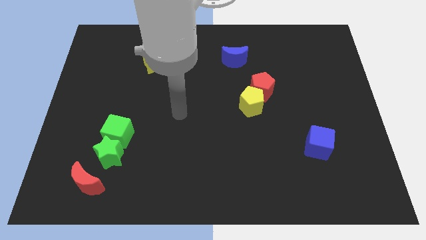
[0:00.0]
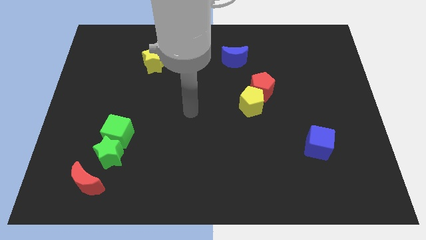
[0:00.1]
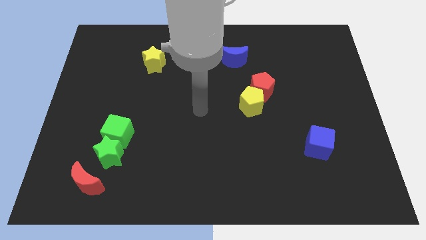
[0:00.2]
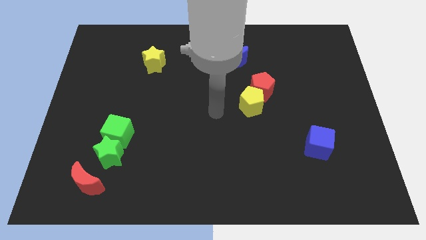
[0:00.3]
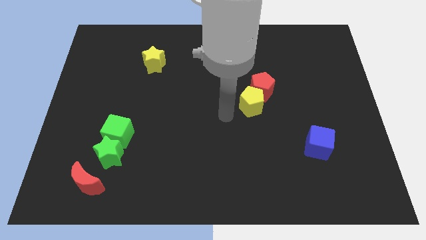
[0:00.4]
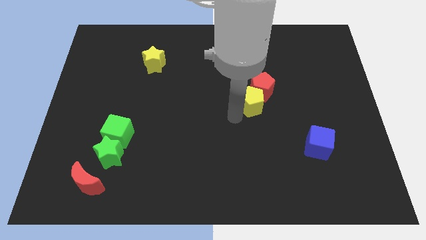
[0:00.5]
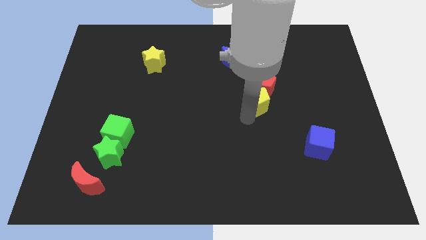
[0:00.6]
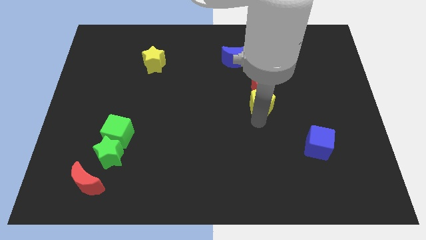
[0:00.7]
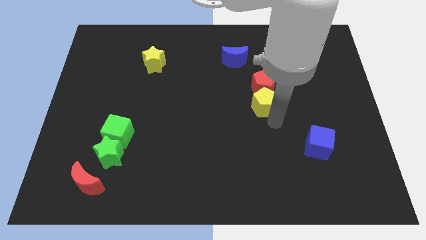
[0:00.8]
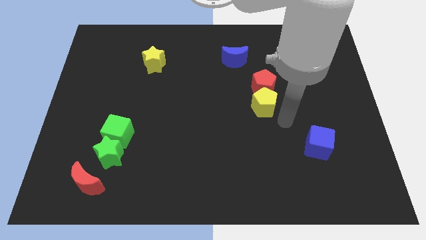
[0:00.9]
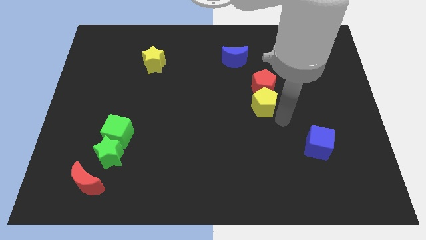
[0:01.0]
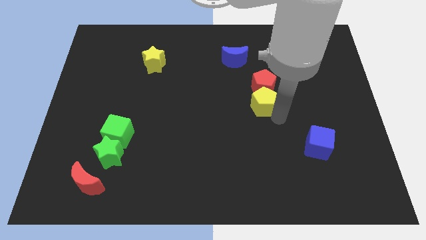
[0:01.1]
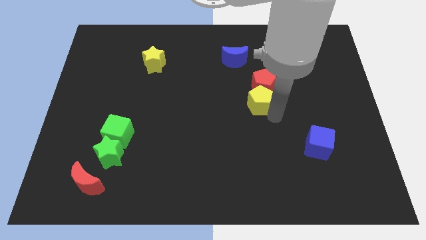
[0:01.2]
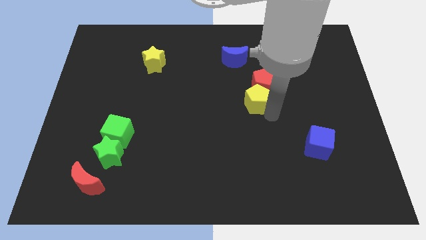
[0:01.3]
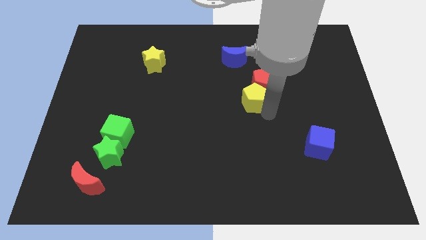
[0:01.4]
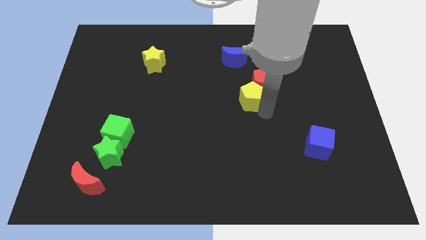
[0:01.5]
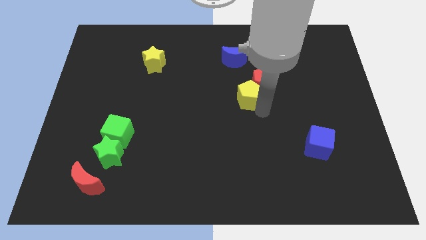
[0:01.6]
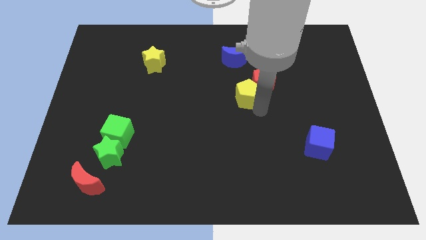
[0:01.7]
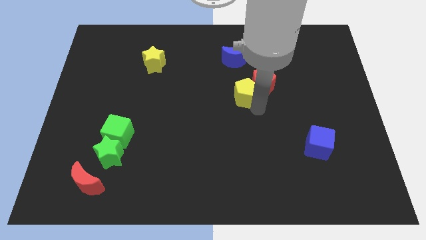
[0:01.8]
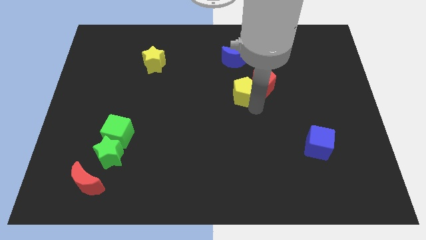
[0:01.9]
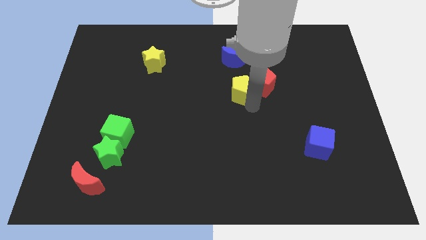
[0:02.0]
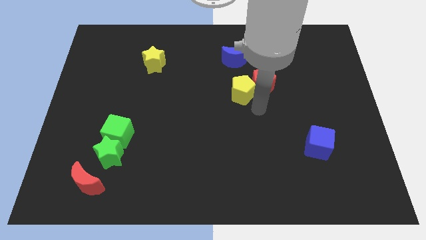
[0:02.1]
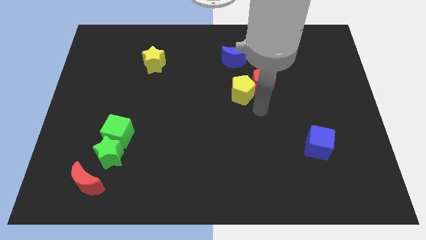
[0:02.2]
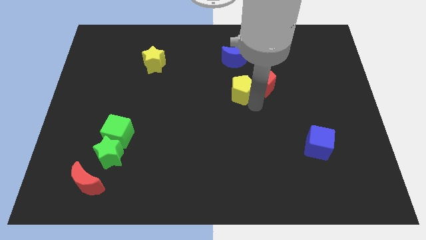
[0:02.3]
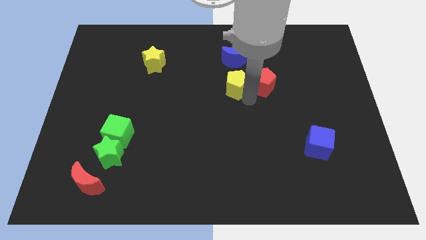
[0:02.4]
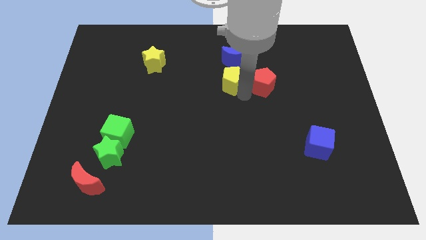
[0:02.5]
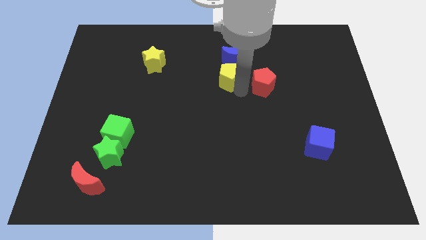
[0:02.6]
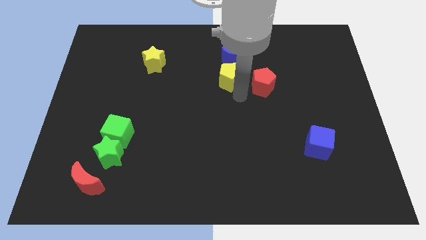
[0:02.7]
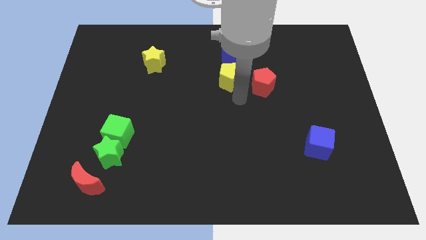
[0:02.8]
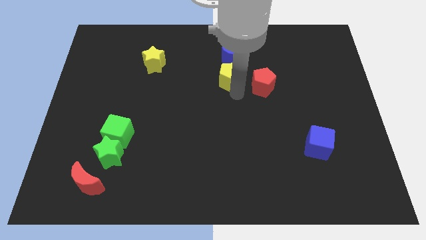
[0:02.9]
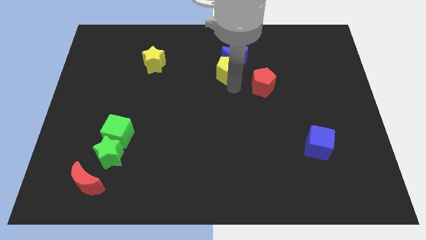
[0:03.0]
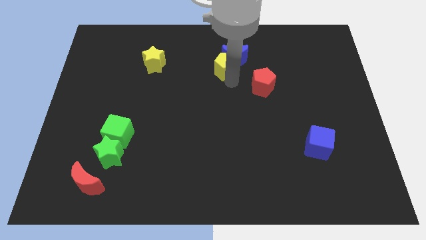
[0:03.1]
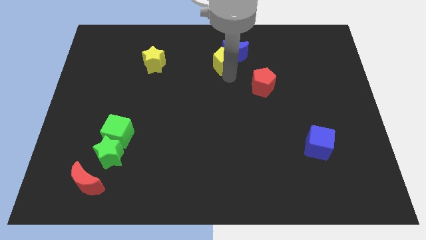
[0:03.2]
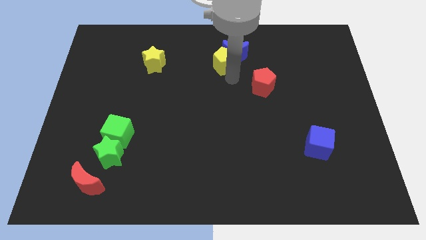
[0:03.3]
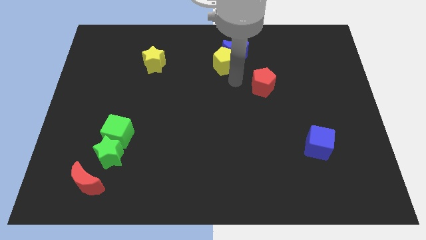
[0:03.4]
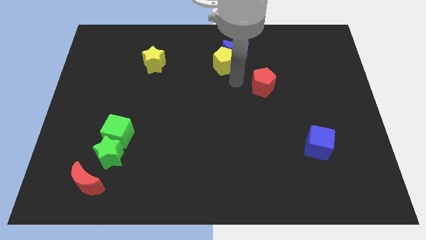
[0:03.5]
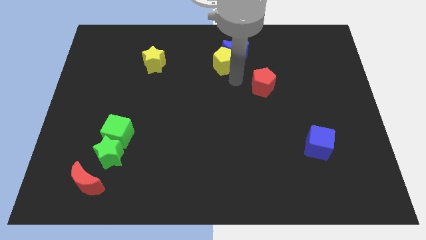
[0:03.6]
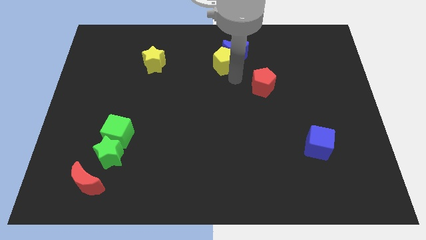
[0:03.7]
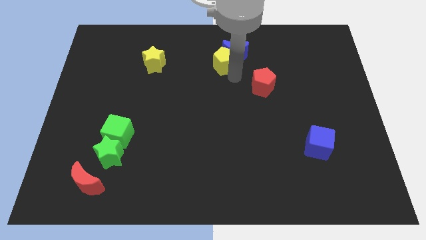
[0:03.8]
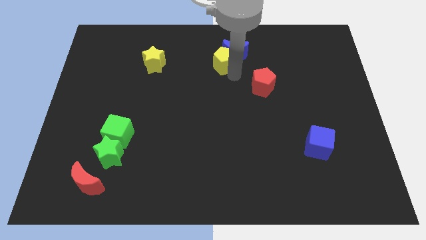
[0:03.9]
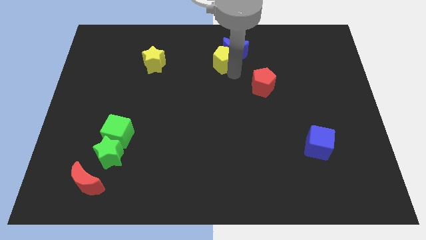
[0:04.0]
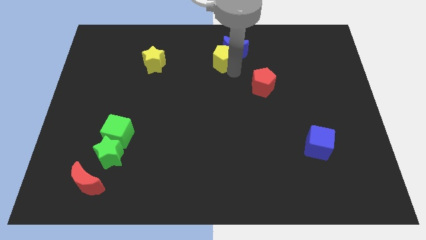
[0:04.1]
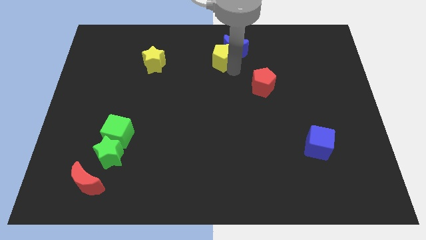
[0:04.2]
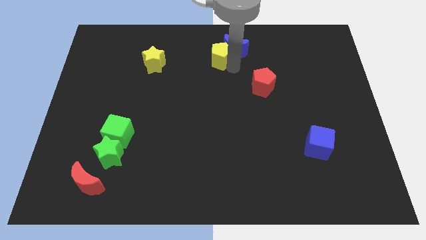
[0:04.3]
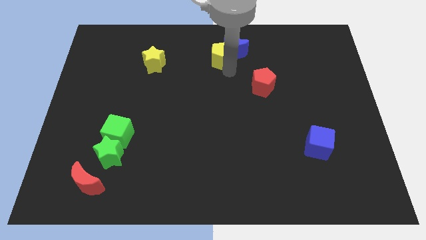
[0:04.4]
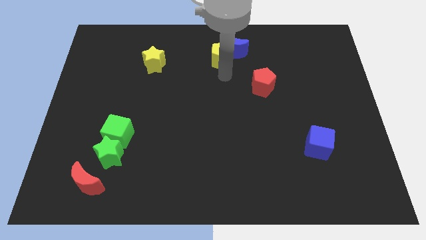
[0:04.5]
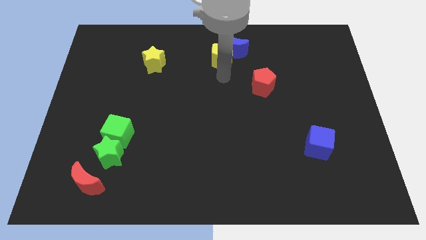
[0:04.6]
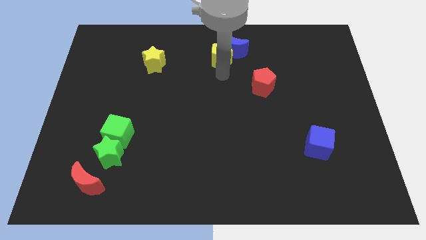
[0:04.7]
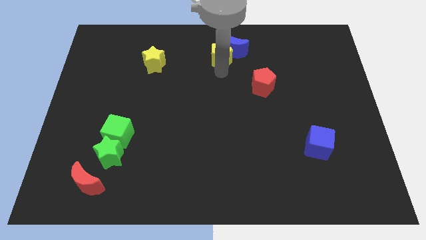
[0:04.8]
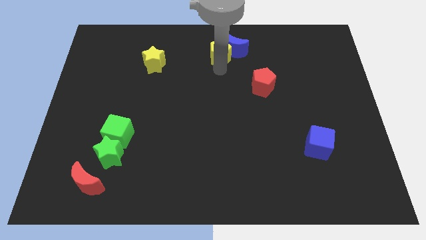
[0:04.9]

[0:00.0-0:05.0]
slide the yellow pentagon to the top

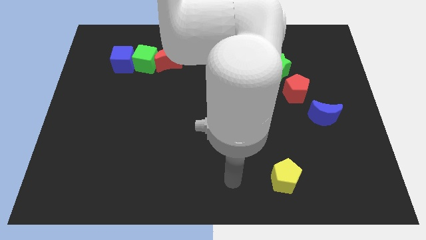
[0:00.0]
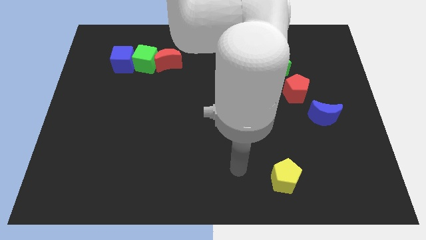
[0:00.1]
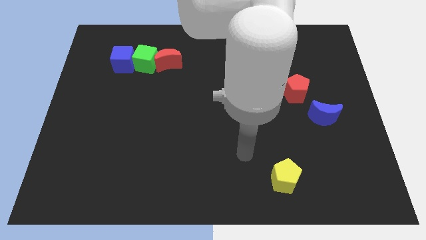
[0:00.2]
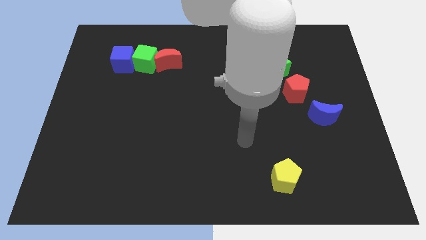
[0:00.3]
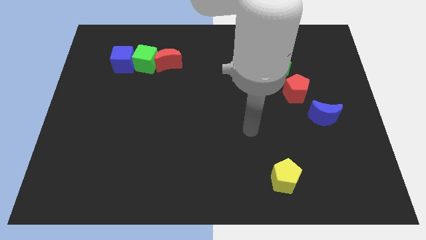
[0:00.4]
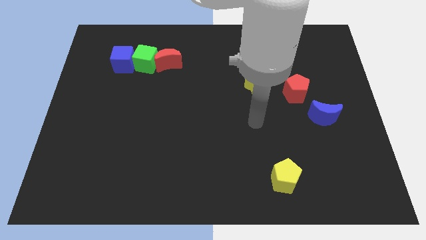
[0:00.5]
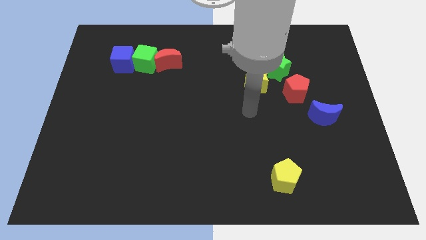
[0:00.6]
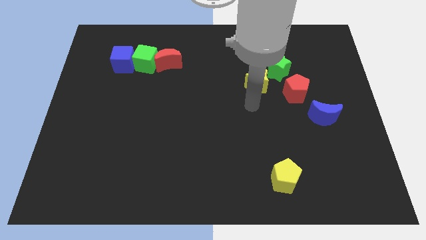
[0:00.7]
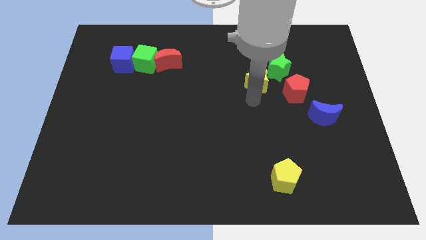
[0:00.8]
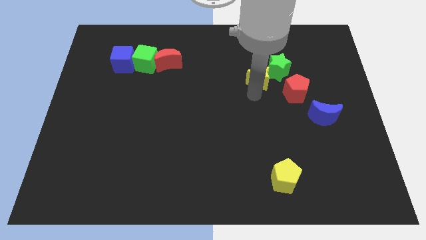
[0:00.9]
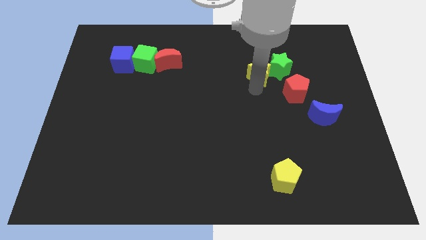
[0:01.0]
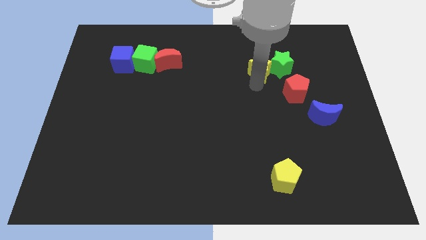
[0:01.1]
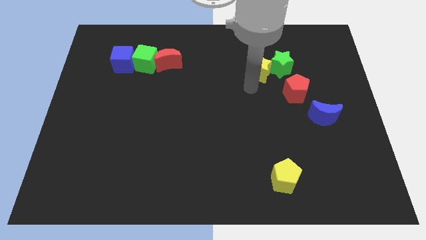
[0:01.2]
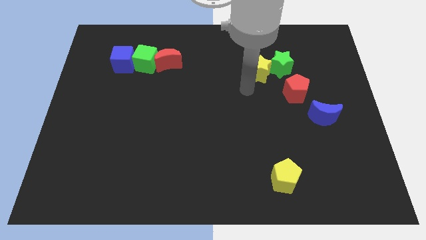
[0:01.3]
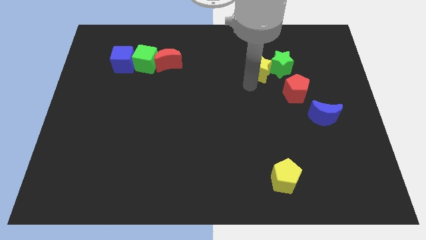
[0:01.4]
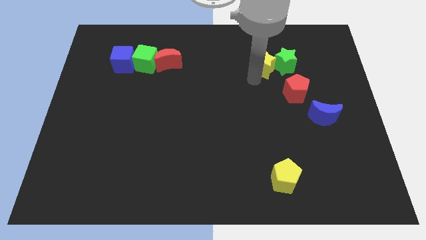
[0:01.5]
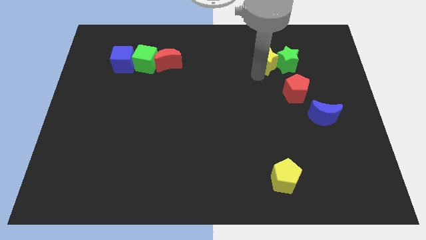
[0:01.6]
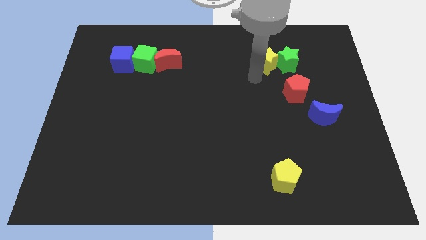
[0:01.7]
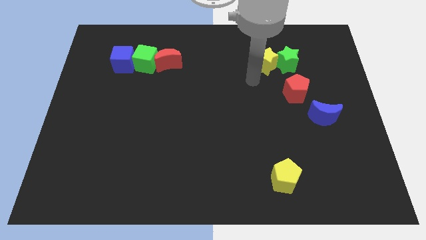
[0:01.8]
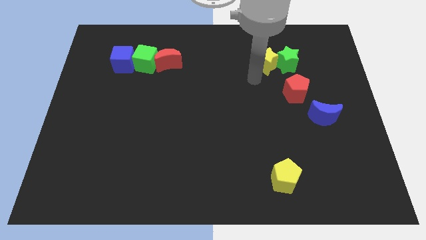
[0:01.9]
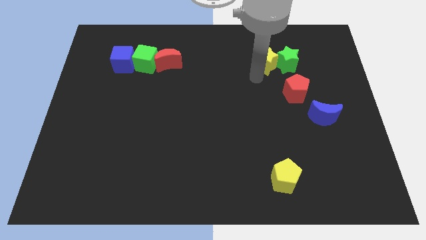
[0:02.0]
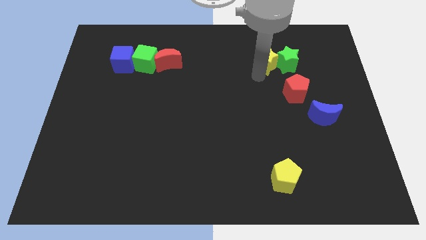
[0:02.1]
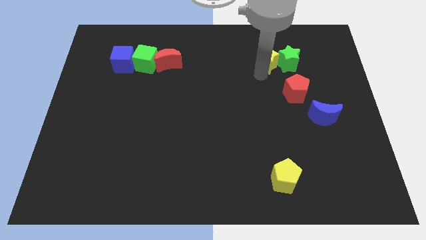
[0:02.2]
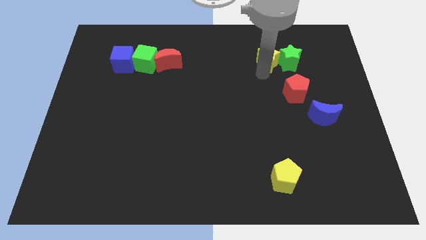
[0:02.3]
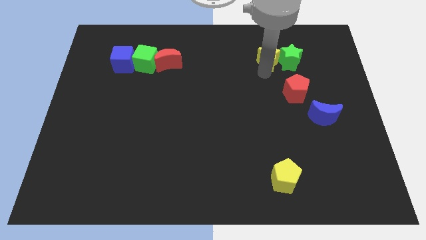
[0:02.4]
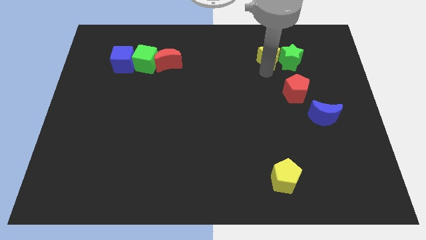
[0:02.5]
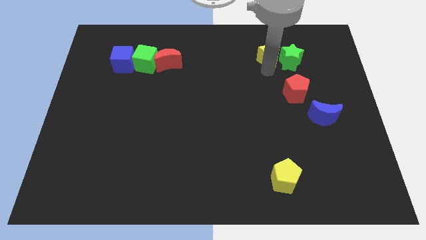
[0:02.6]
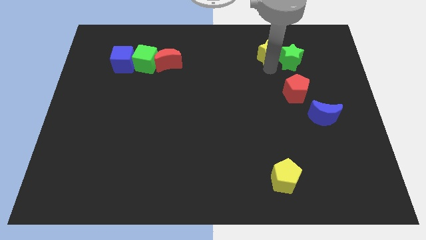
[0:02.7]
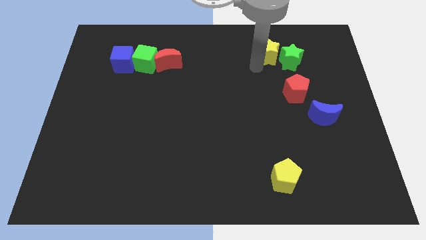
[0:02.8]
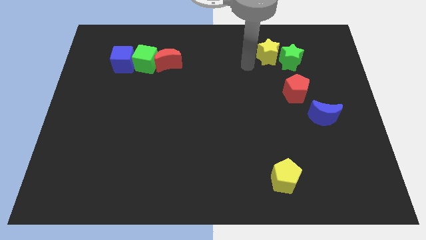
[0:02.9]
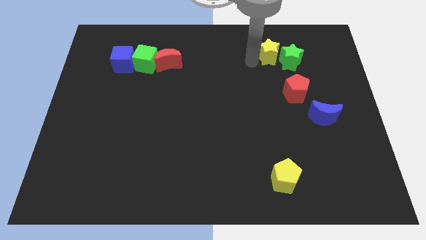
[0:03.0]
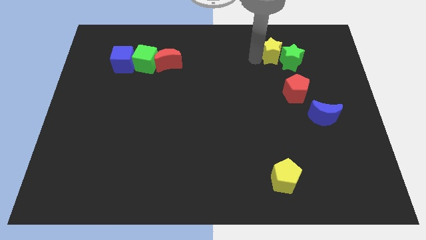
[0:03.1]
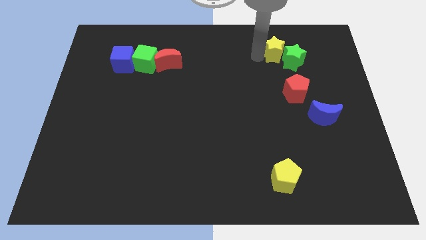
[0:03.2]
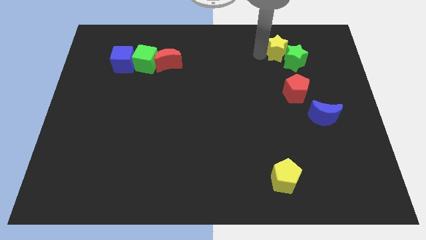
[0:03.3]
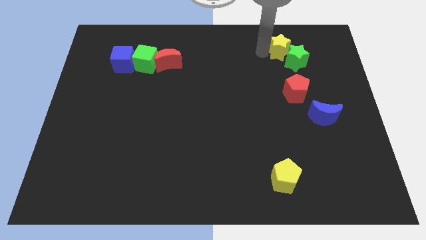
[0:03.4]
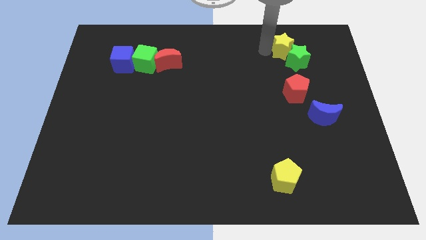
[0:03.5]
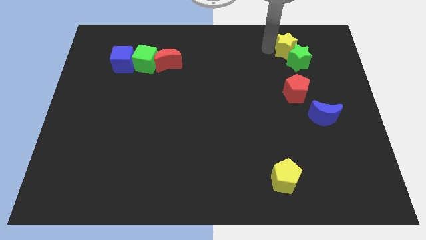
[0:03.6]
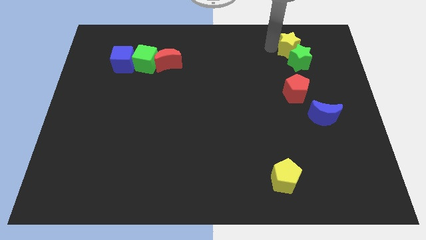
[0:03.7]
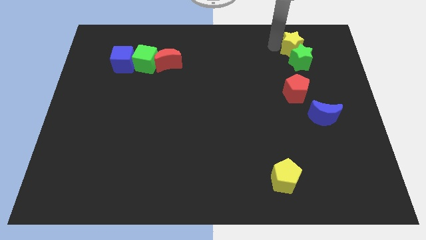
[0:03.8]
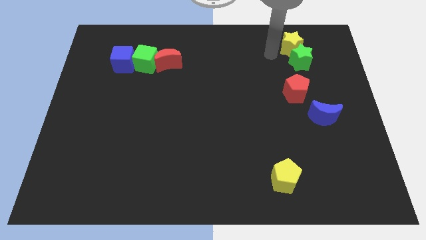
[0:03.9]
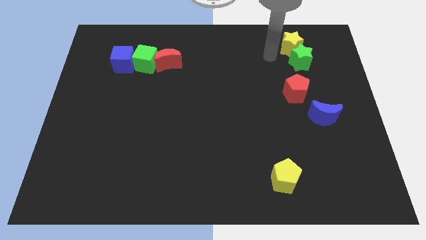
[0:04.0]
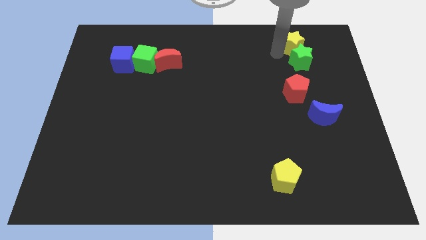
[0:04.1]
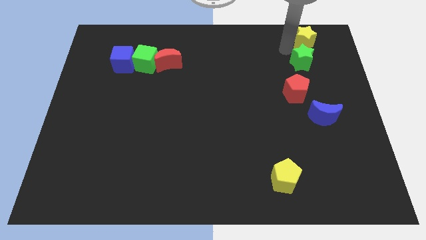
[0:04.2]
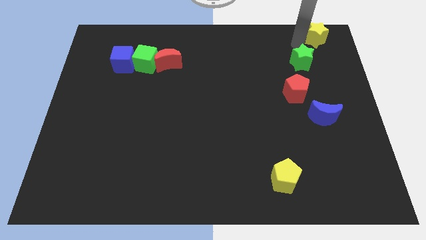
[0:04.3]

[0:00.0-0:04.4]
move the yellow star to the top right of the board
